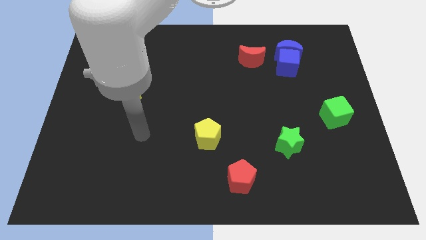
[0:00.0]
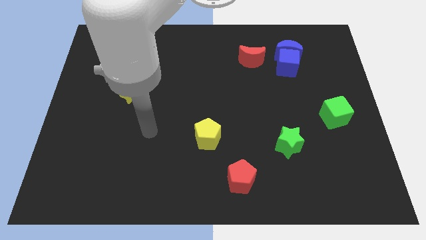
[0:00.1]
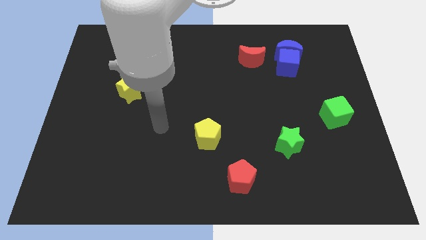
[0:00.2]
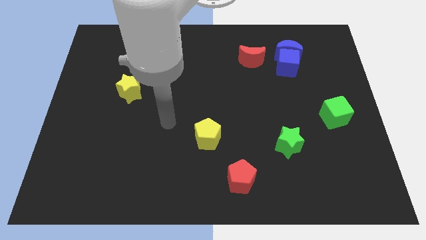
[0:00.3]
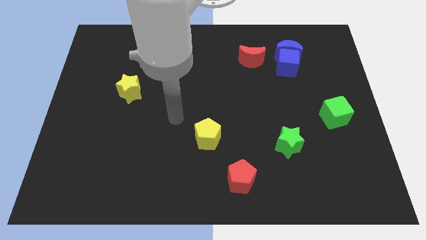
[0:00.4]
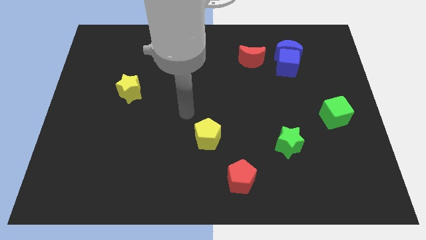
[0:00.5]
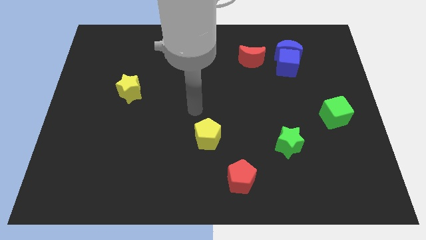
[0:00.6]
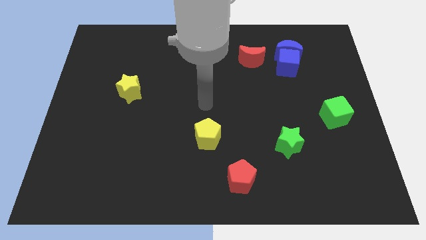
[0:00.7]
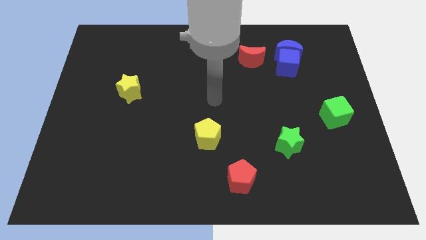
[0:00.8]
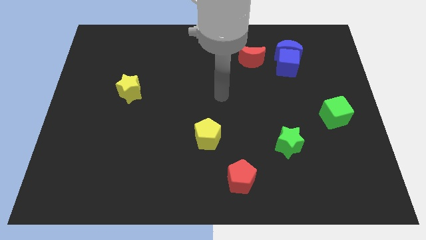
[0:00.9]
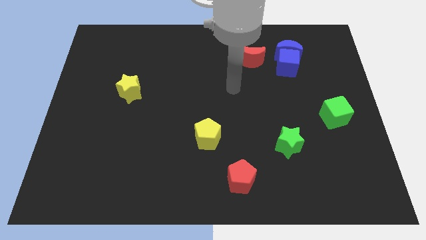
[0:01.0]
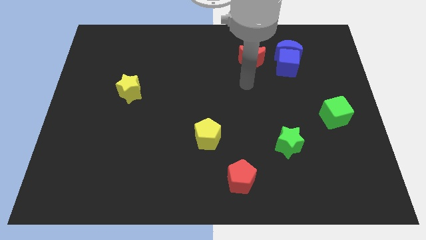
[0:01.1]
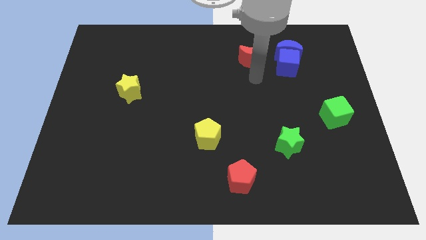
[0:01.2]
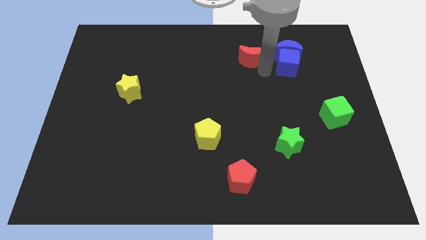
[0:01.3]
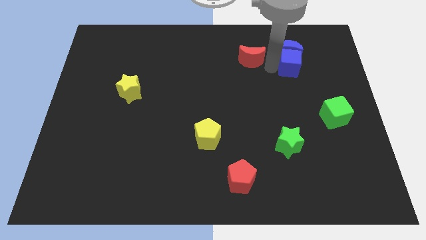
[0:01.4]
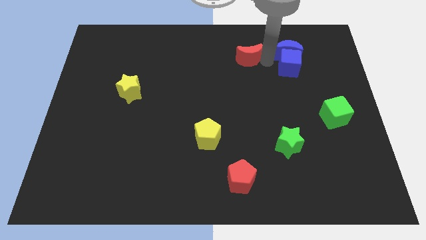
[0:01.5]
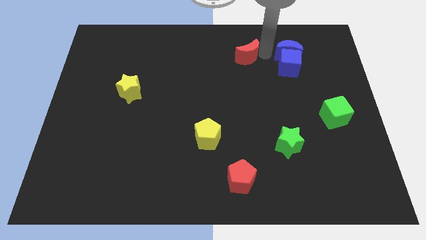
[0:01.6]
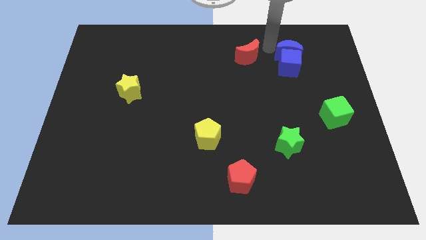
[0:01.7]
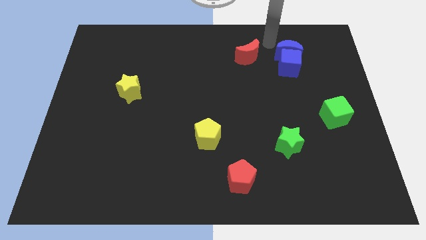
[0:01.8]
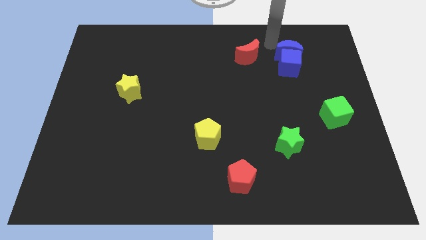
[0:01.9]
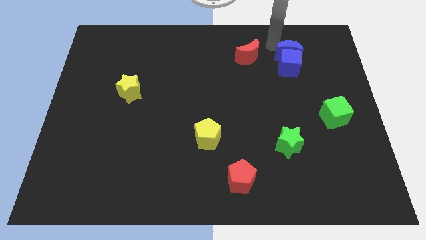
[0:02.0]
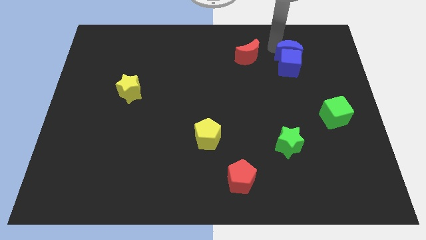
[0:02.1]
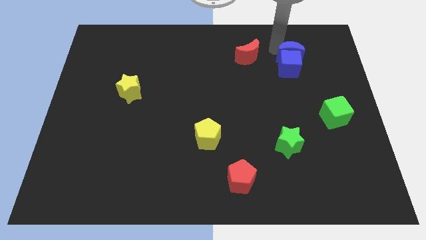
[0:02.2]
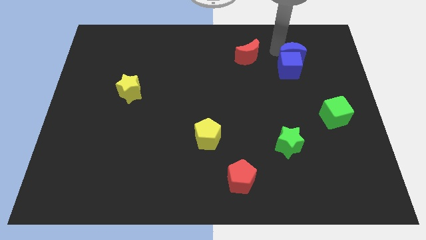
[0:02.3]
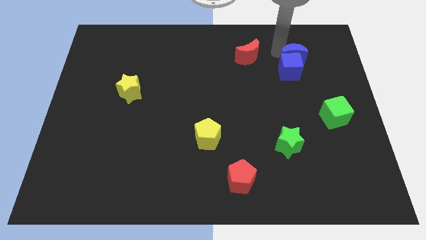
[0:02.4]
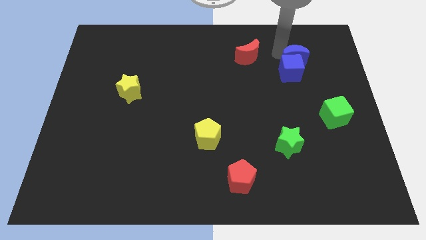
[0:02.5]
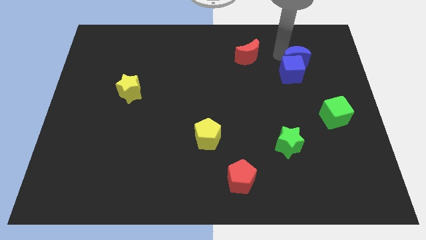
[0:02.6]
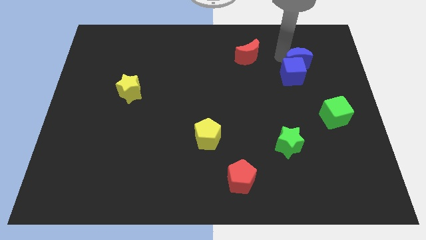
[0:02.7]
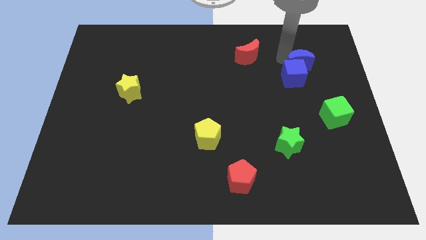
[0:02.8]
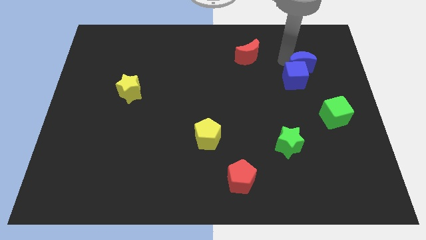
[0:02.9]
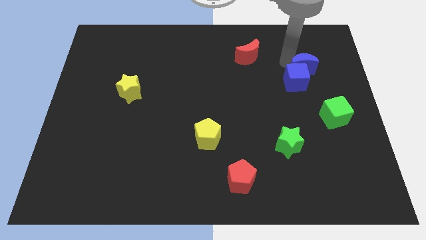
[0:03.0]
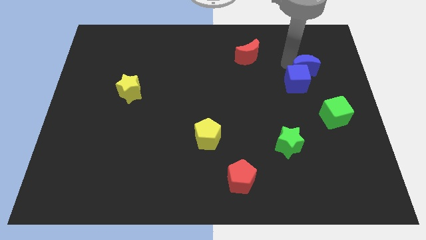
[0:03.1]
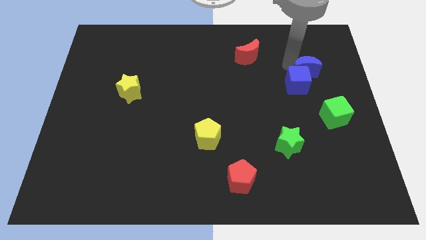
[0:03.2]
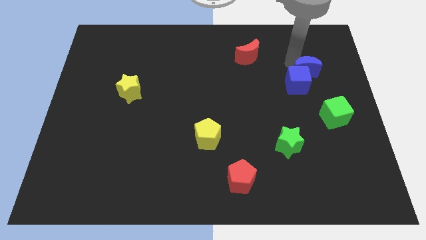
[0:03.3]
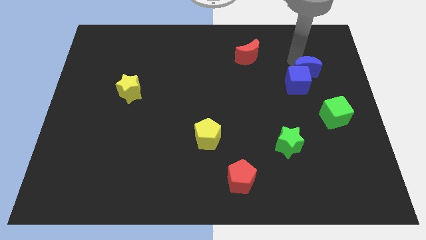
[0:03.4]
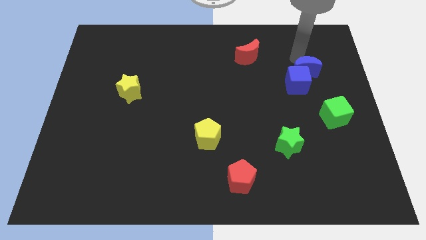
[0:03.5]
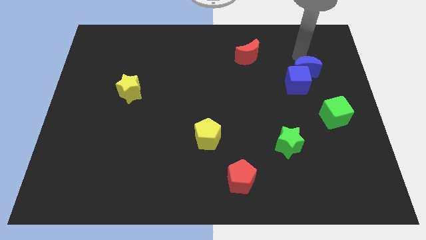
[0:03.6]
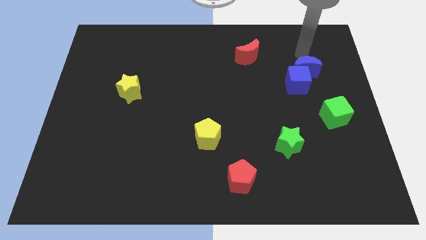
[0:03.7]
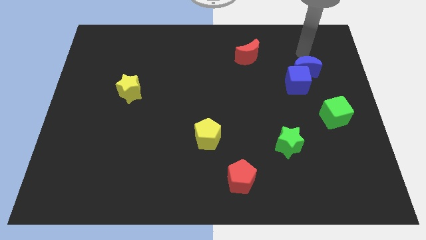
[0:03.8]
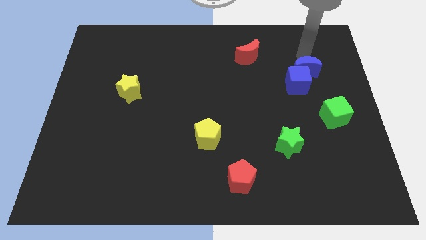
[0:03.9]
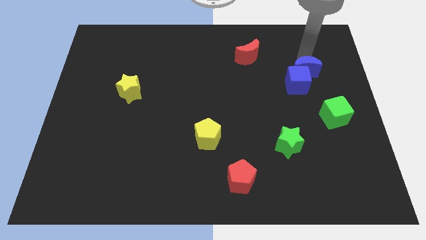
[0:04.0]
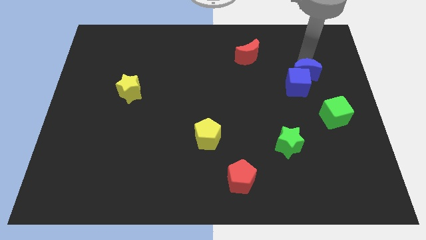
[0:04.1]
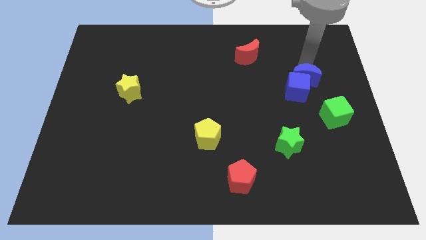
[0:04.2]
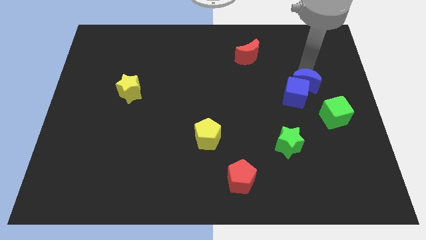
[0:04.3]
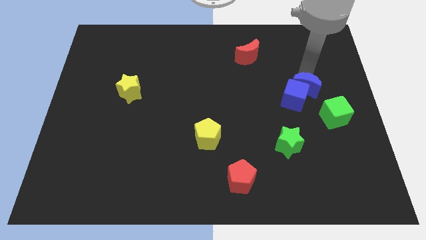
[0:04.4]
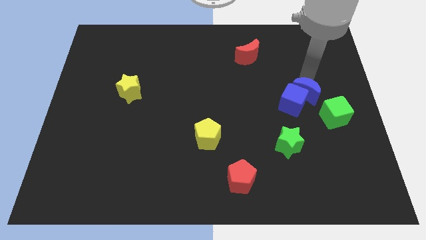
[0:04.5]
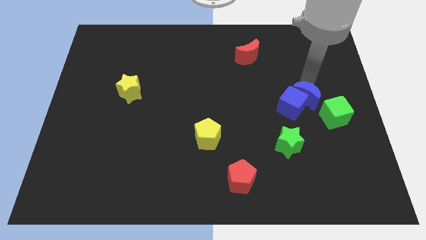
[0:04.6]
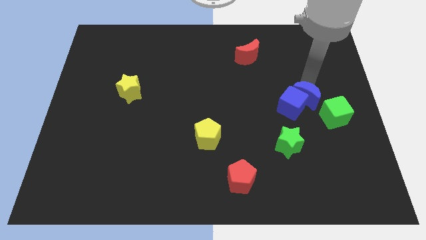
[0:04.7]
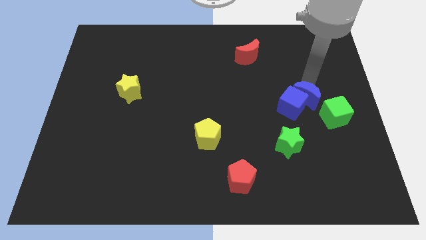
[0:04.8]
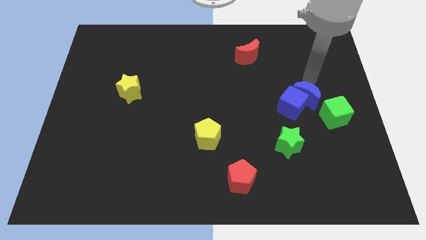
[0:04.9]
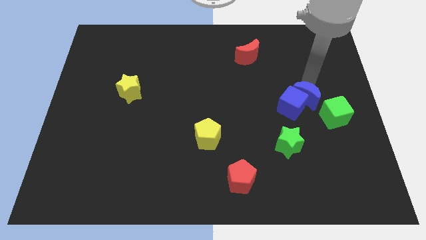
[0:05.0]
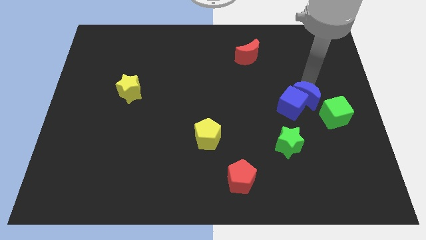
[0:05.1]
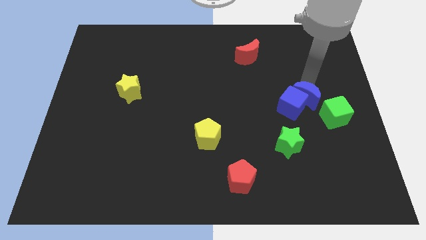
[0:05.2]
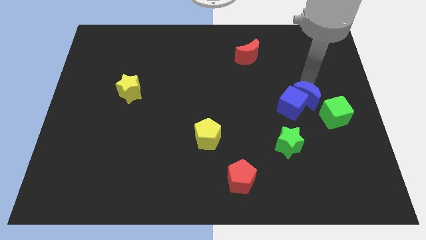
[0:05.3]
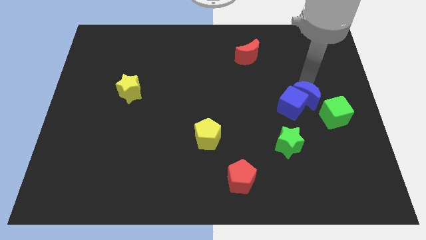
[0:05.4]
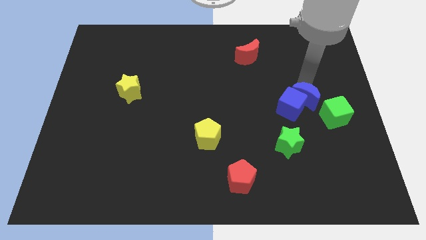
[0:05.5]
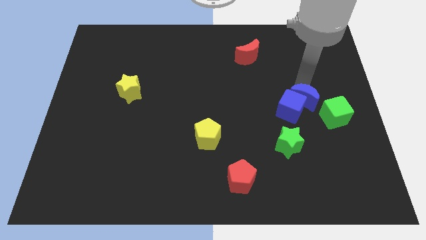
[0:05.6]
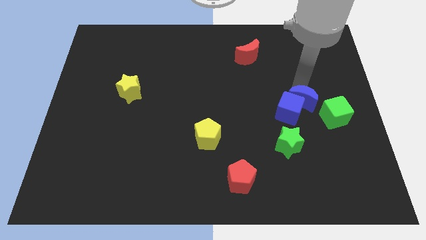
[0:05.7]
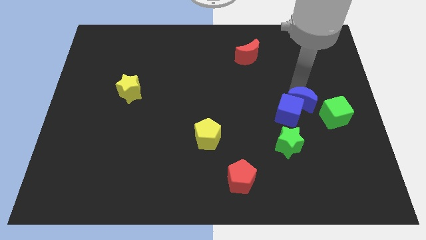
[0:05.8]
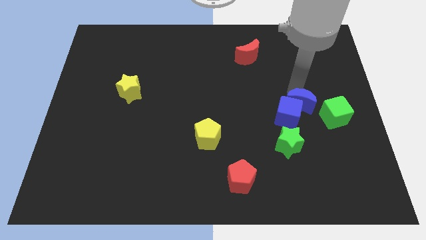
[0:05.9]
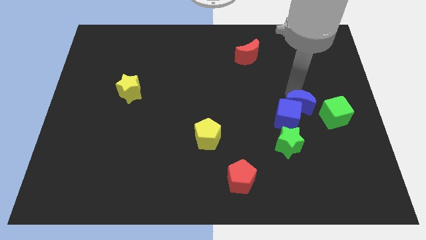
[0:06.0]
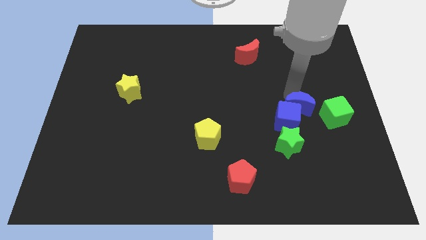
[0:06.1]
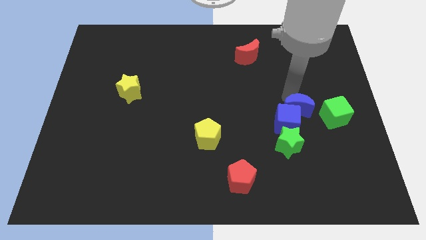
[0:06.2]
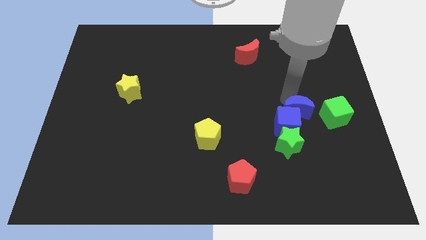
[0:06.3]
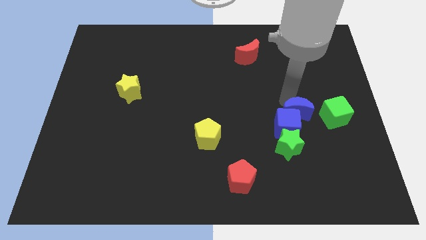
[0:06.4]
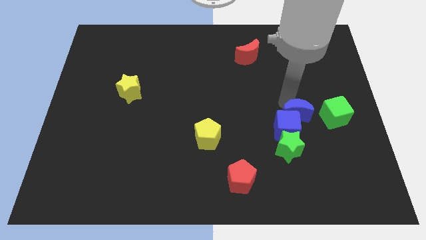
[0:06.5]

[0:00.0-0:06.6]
slide the blue moon down

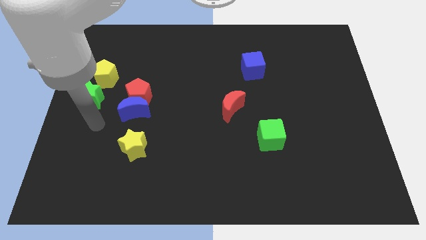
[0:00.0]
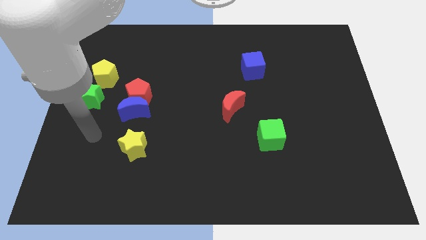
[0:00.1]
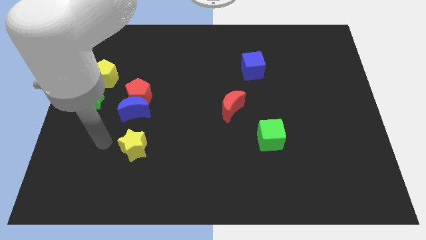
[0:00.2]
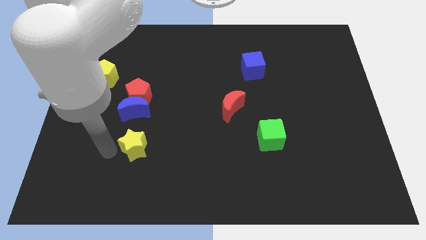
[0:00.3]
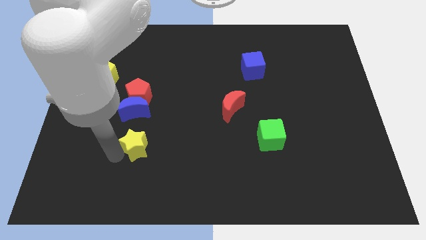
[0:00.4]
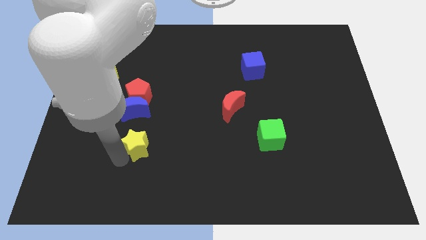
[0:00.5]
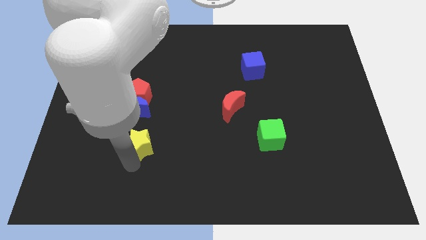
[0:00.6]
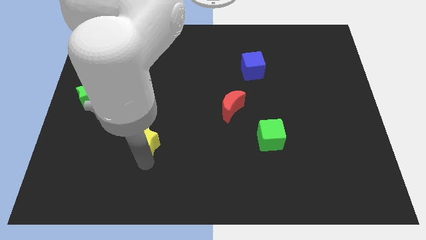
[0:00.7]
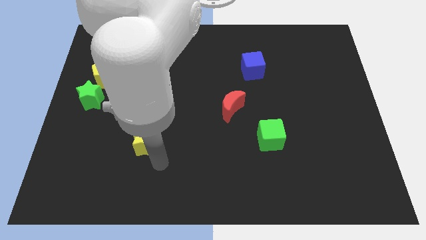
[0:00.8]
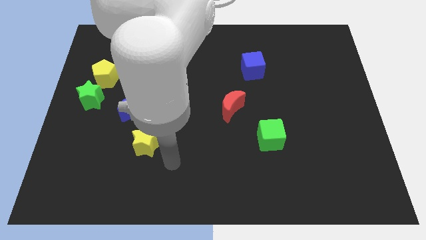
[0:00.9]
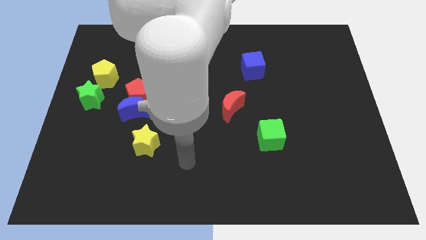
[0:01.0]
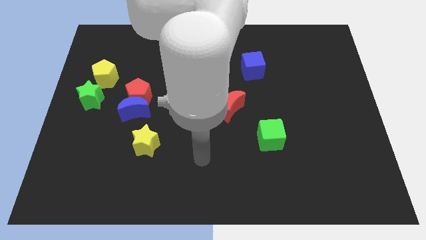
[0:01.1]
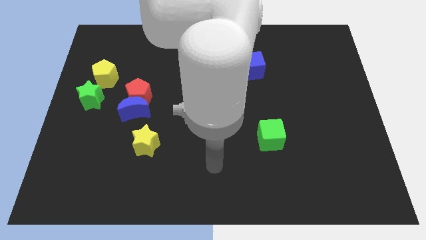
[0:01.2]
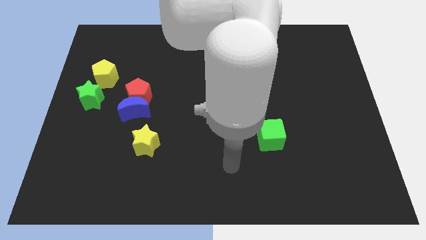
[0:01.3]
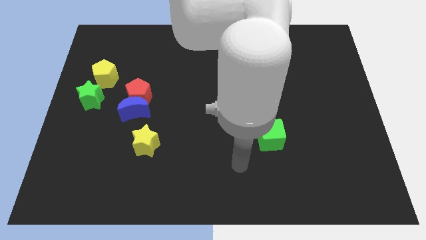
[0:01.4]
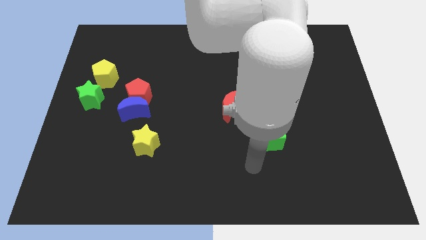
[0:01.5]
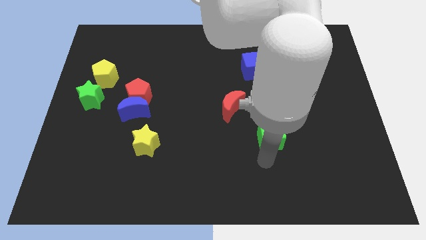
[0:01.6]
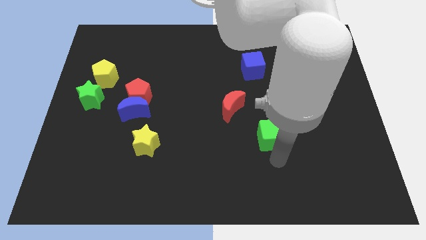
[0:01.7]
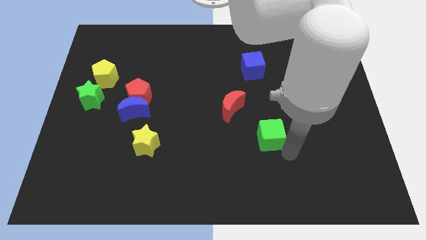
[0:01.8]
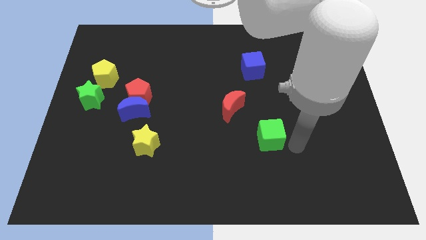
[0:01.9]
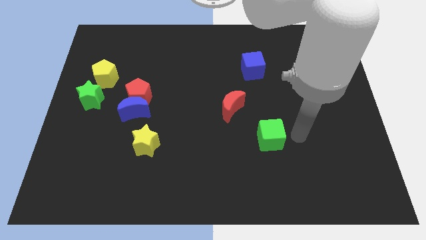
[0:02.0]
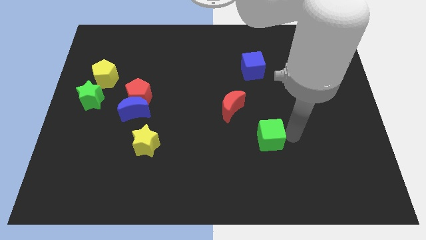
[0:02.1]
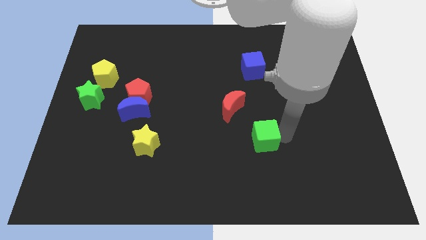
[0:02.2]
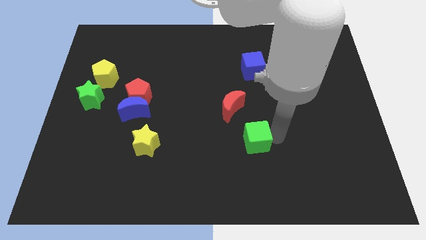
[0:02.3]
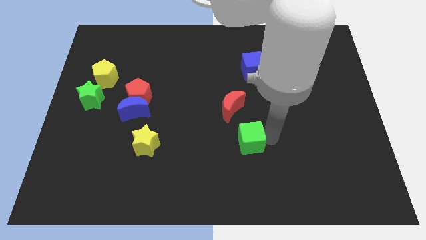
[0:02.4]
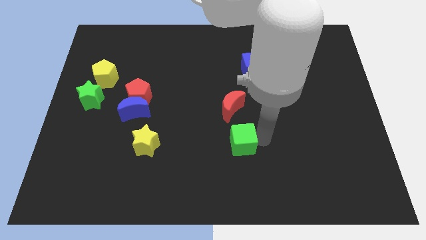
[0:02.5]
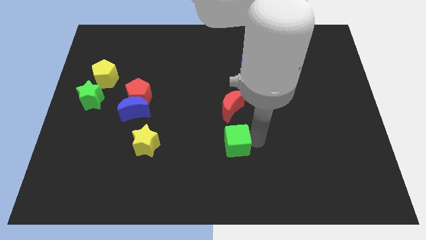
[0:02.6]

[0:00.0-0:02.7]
move the green cube to the left a little
